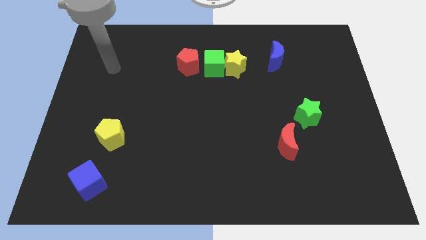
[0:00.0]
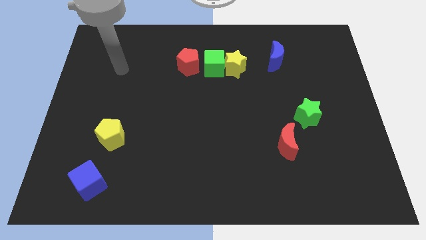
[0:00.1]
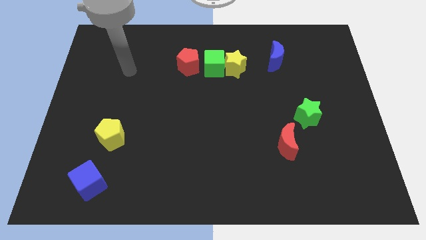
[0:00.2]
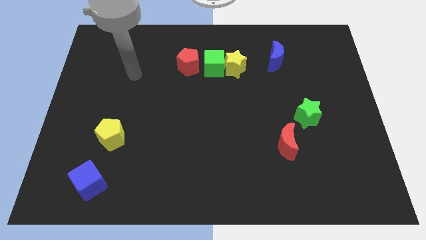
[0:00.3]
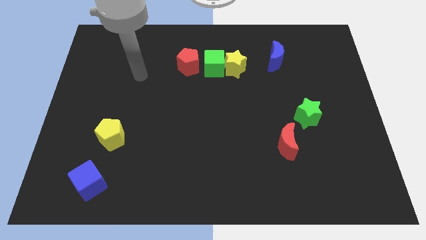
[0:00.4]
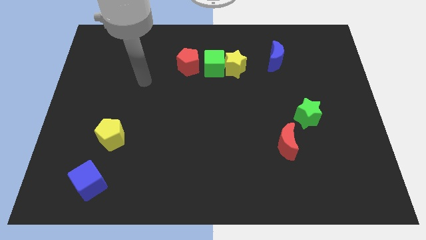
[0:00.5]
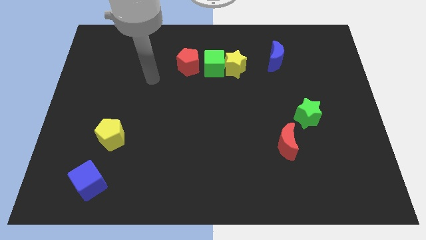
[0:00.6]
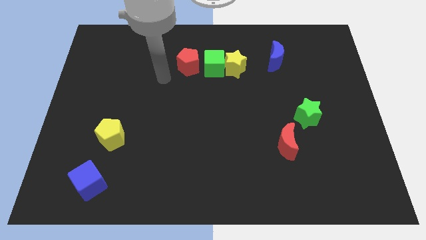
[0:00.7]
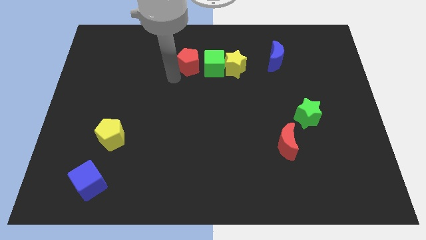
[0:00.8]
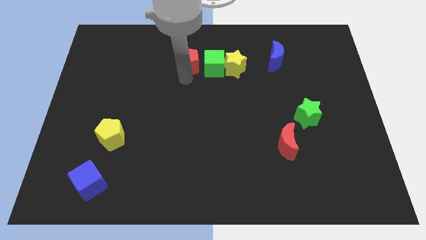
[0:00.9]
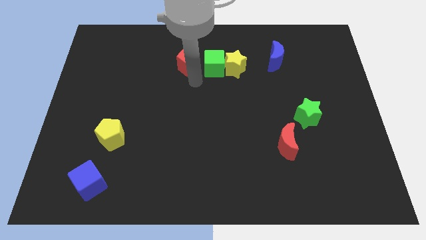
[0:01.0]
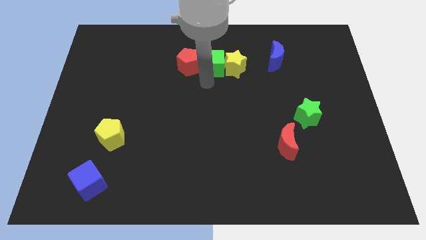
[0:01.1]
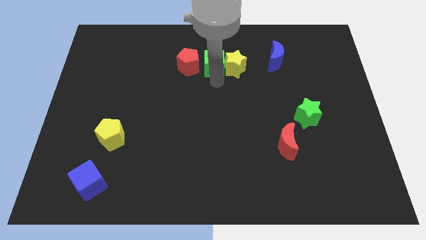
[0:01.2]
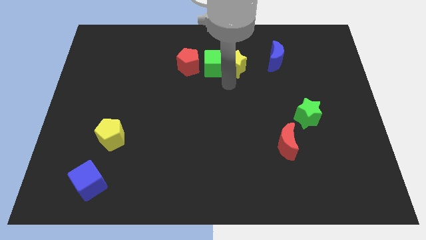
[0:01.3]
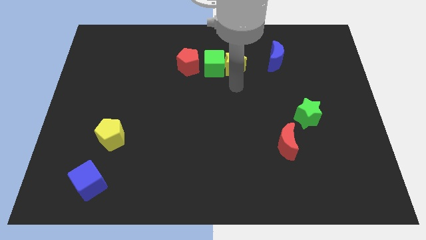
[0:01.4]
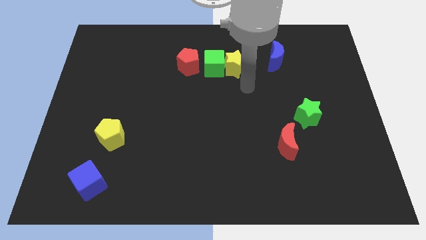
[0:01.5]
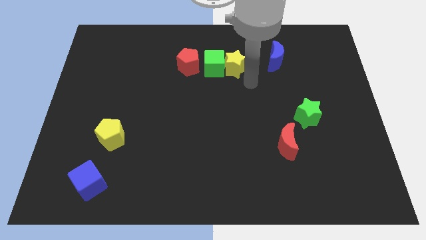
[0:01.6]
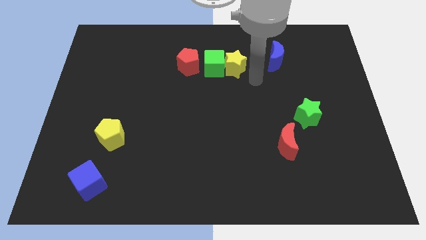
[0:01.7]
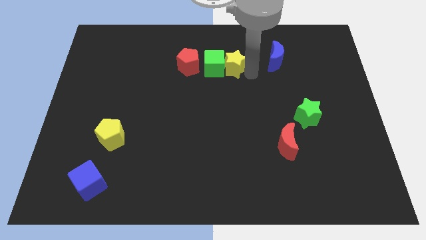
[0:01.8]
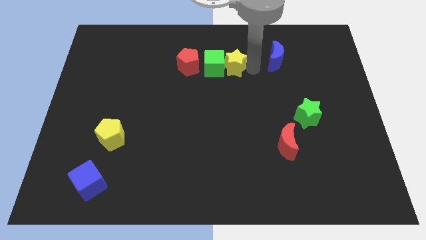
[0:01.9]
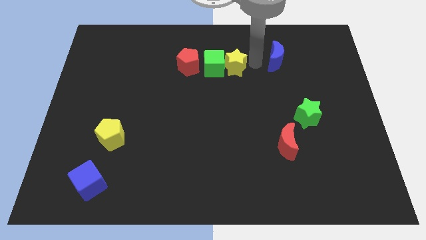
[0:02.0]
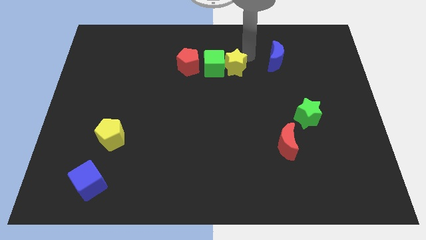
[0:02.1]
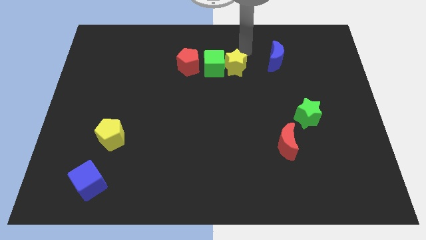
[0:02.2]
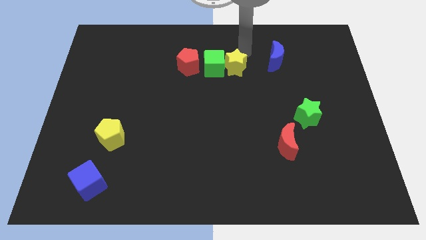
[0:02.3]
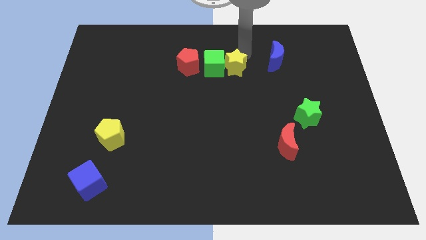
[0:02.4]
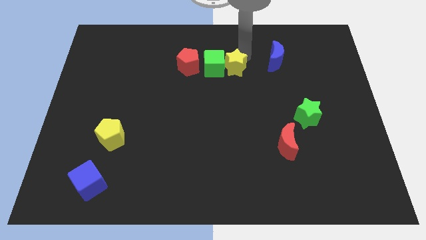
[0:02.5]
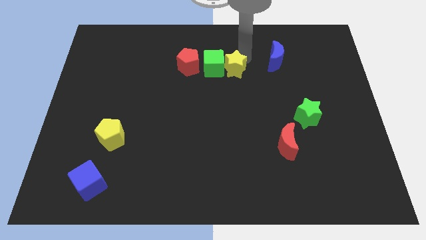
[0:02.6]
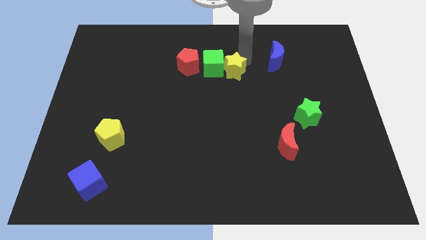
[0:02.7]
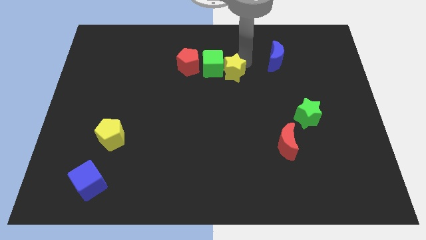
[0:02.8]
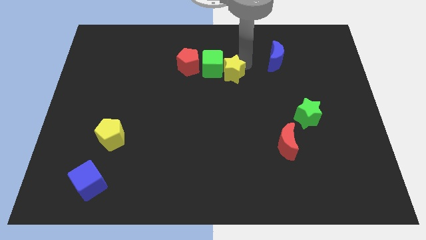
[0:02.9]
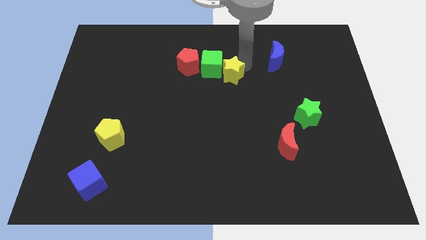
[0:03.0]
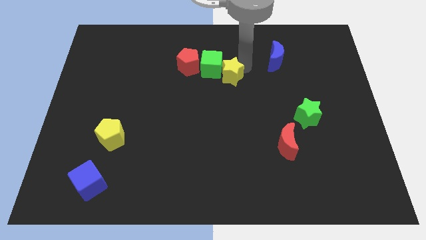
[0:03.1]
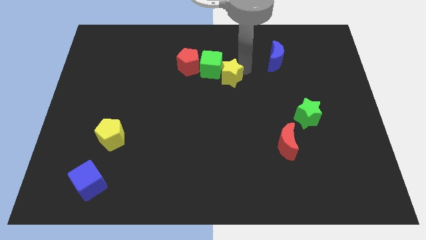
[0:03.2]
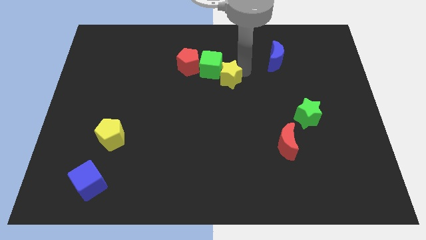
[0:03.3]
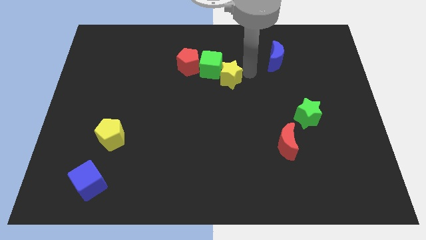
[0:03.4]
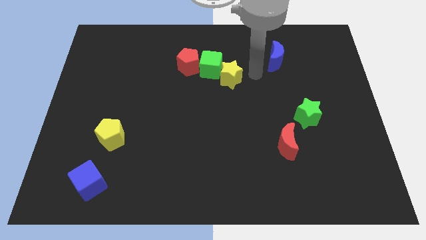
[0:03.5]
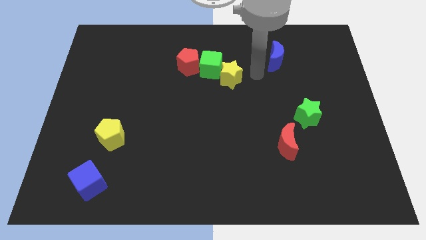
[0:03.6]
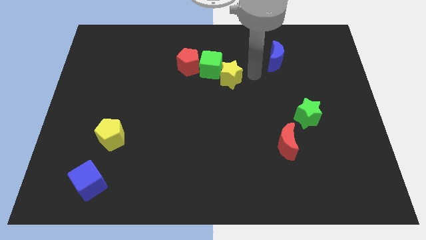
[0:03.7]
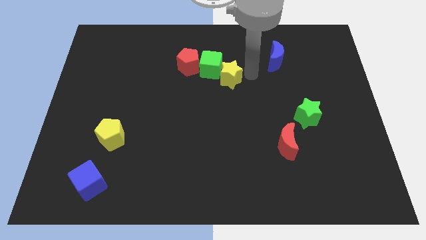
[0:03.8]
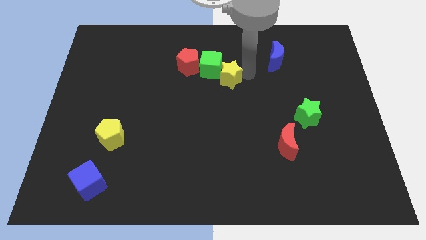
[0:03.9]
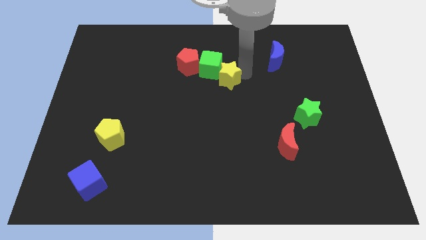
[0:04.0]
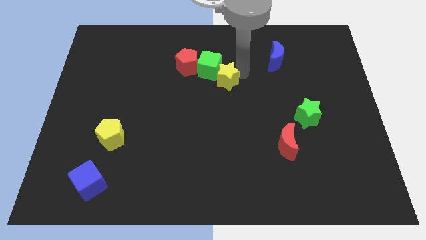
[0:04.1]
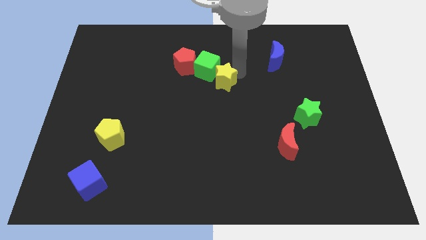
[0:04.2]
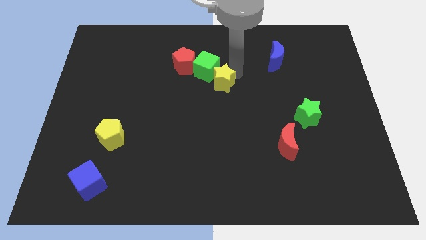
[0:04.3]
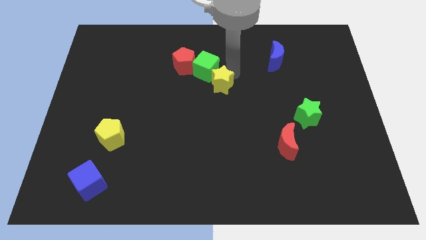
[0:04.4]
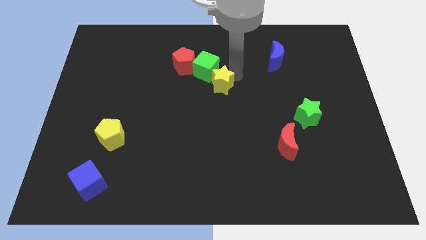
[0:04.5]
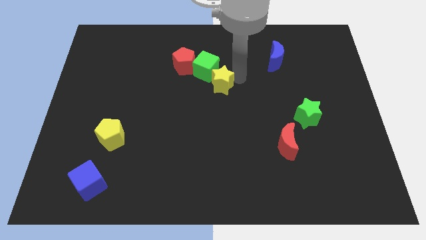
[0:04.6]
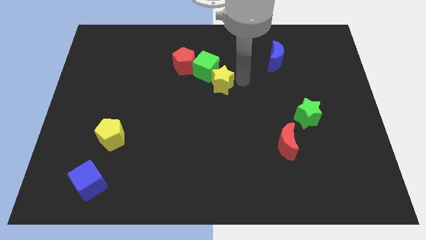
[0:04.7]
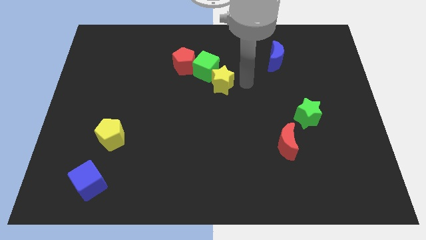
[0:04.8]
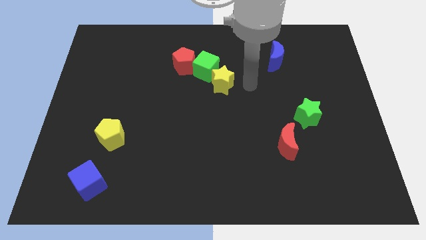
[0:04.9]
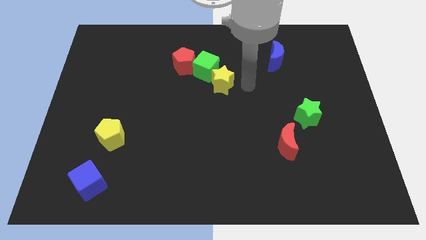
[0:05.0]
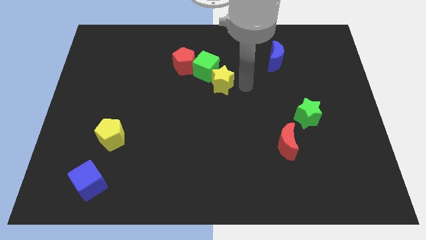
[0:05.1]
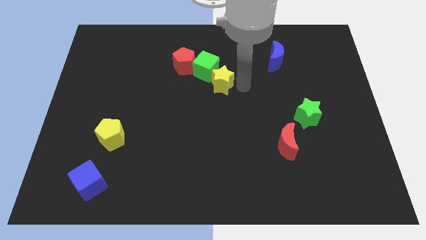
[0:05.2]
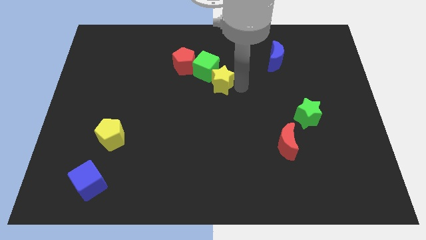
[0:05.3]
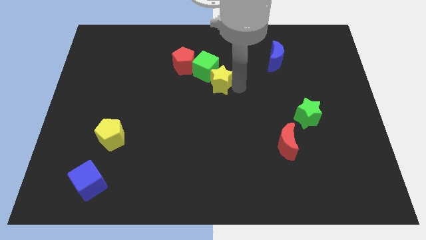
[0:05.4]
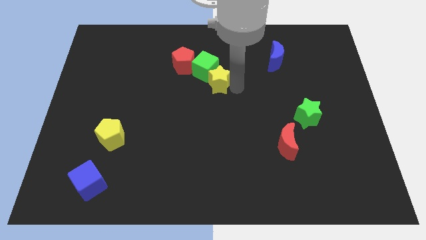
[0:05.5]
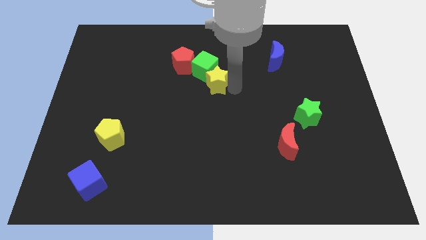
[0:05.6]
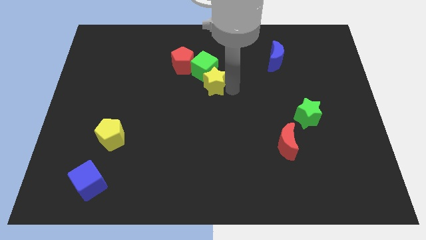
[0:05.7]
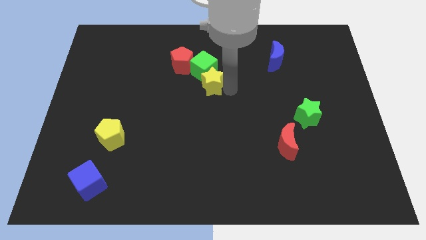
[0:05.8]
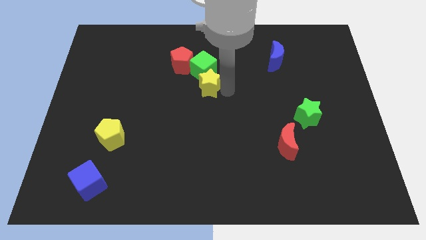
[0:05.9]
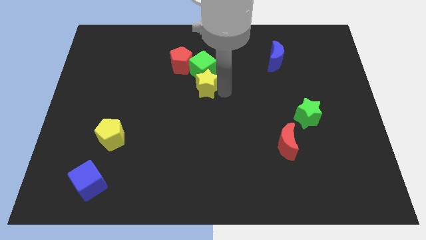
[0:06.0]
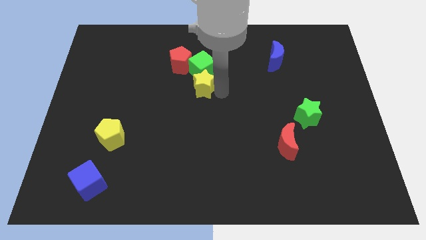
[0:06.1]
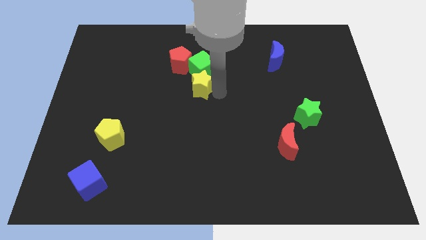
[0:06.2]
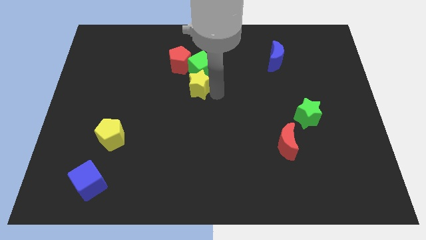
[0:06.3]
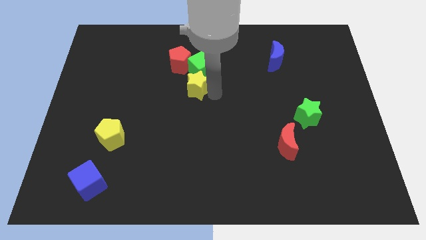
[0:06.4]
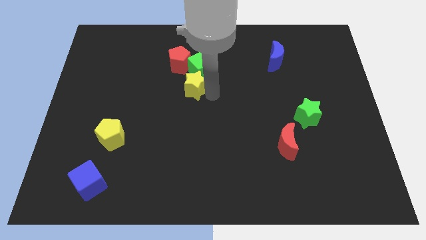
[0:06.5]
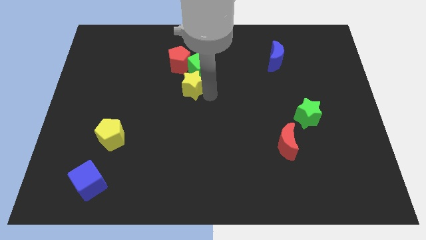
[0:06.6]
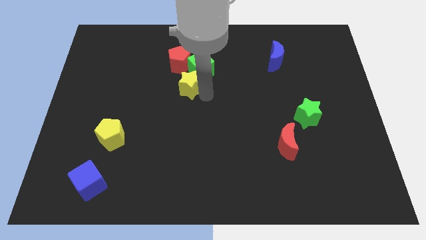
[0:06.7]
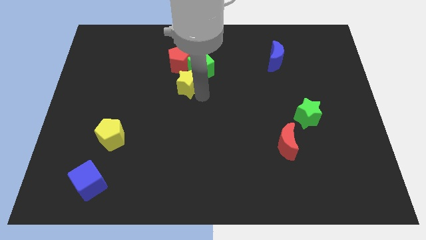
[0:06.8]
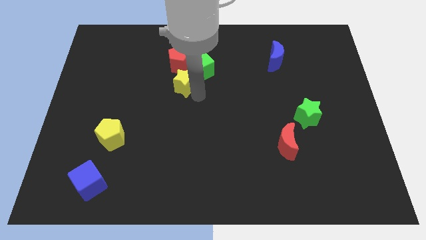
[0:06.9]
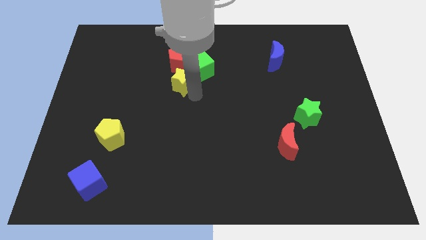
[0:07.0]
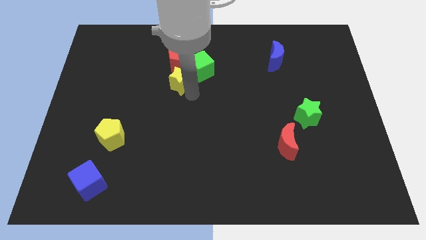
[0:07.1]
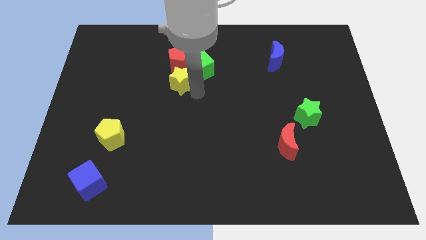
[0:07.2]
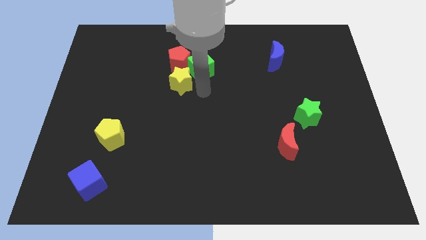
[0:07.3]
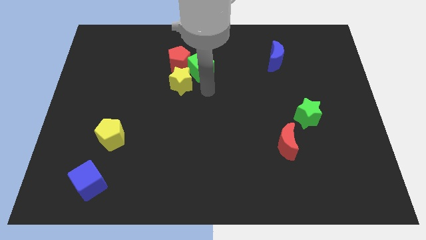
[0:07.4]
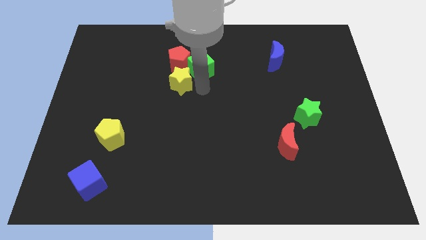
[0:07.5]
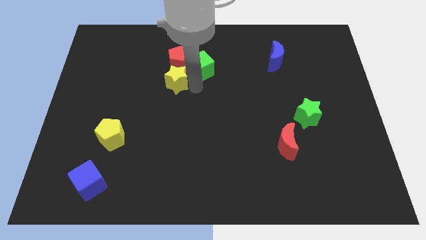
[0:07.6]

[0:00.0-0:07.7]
slide the yellow star diagonally down and to the left of the red pentagon
